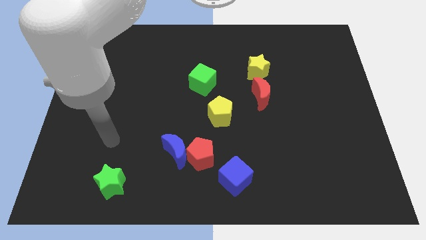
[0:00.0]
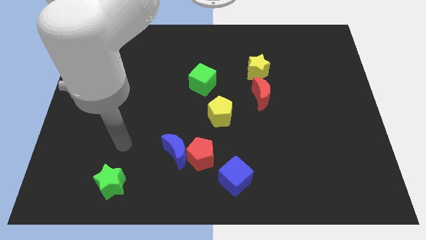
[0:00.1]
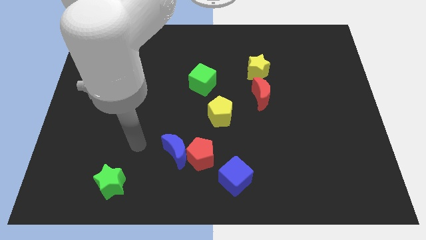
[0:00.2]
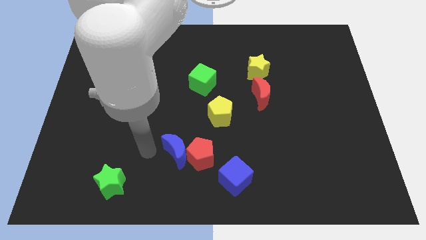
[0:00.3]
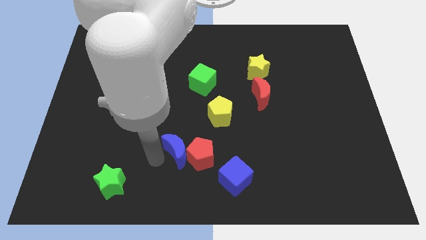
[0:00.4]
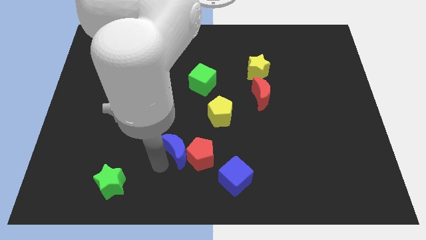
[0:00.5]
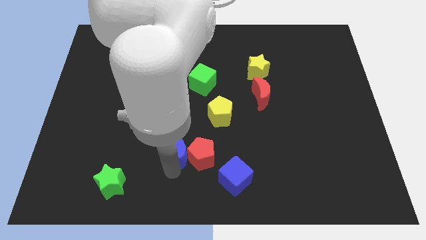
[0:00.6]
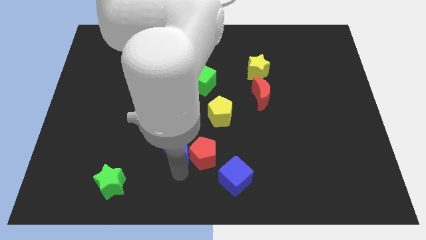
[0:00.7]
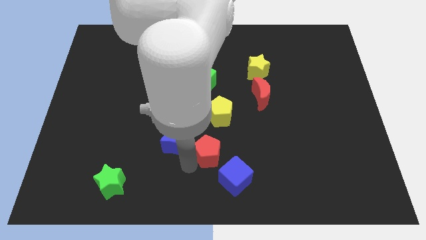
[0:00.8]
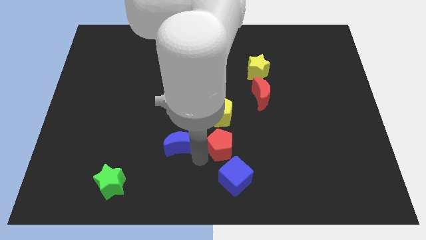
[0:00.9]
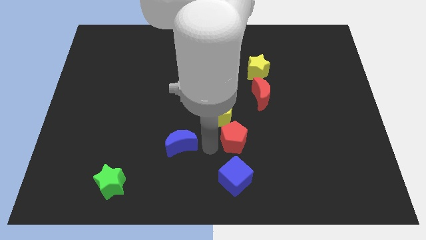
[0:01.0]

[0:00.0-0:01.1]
pull the blue moon apart from the red pentagon

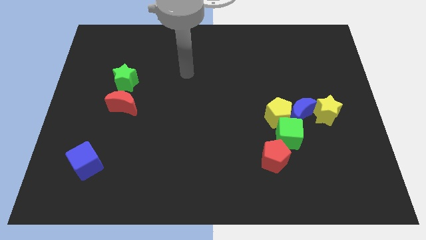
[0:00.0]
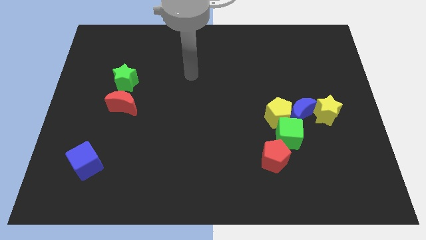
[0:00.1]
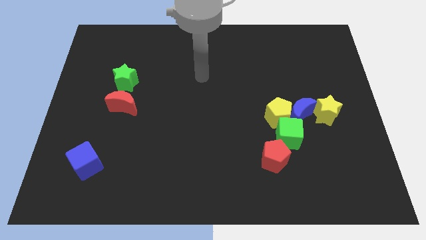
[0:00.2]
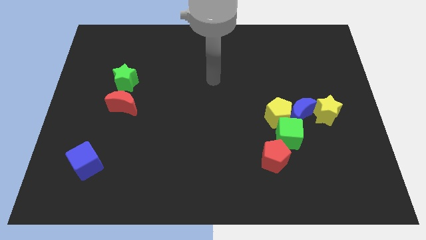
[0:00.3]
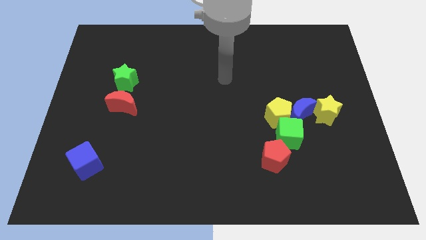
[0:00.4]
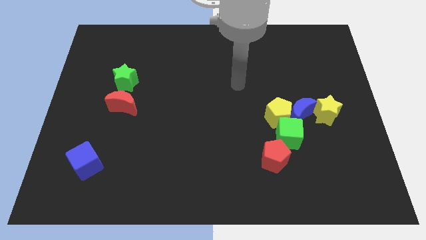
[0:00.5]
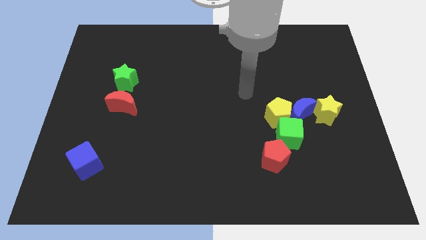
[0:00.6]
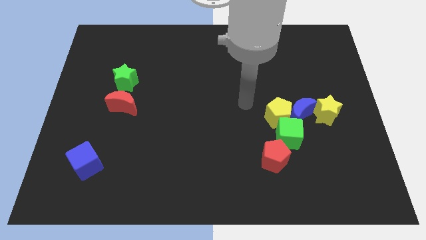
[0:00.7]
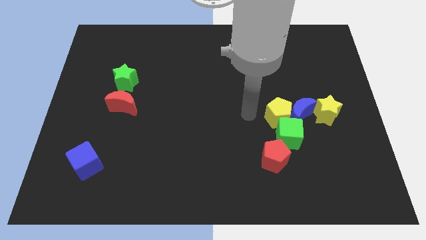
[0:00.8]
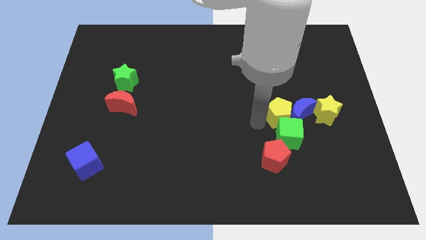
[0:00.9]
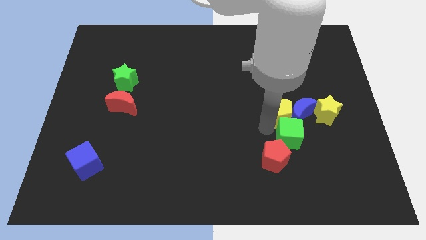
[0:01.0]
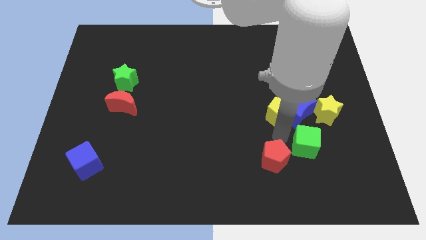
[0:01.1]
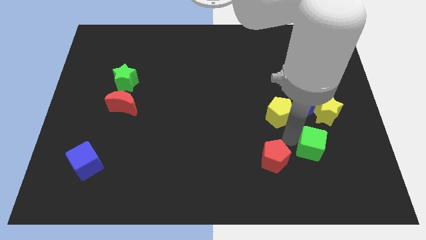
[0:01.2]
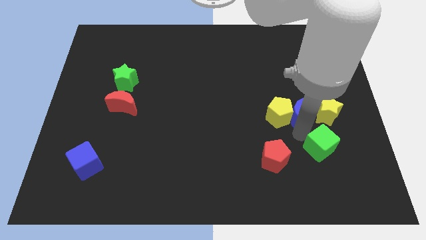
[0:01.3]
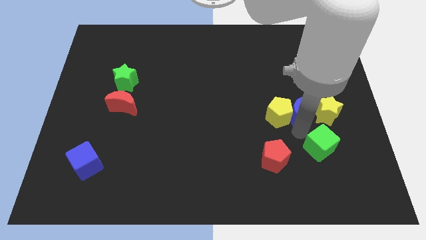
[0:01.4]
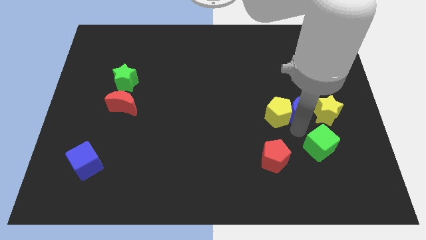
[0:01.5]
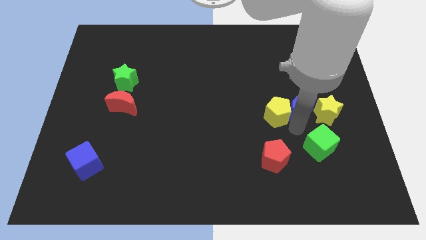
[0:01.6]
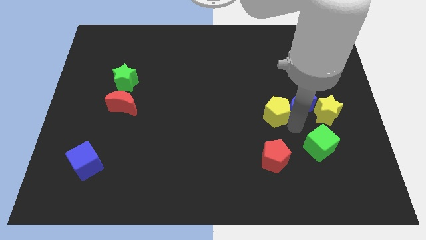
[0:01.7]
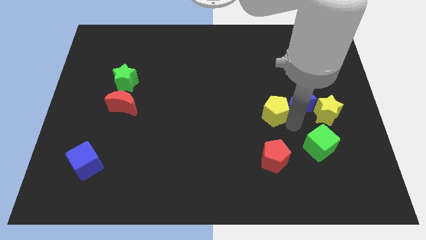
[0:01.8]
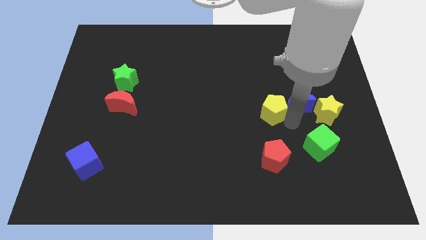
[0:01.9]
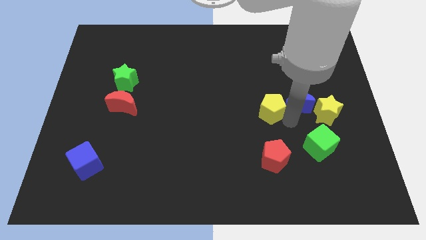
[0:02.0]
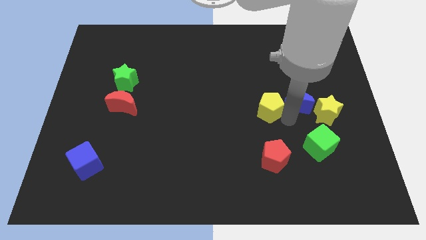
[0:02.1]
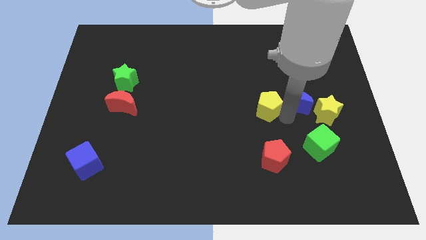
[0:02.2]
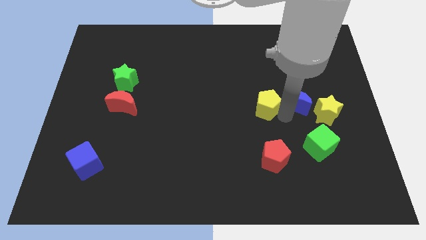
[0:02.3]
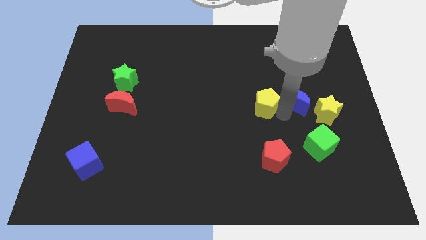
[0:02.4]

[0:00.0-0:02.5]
separate the yellow pentagon from the blue moon and green cube

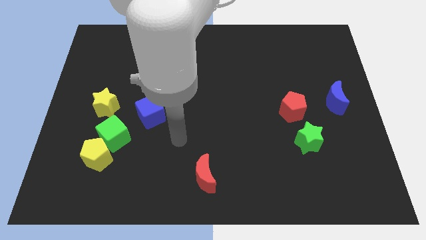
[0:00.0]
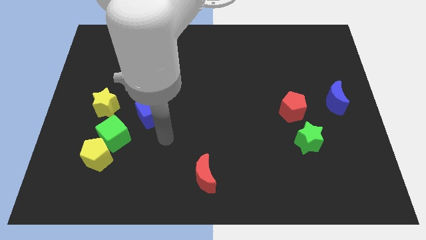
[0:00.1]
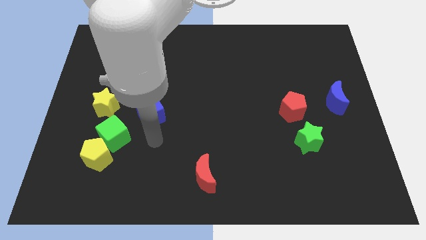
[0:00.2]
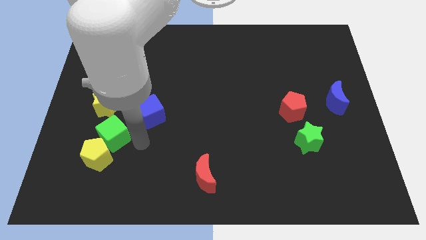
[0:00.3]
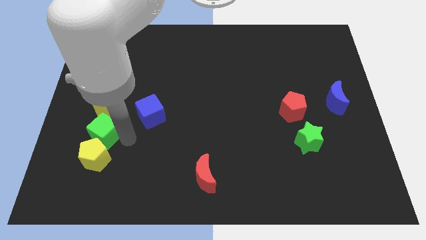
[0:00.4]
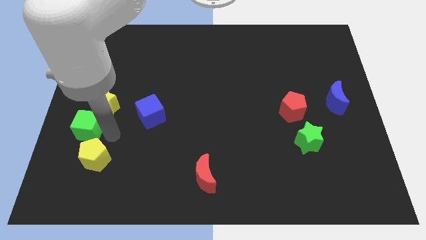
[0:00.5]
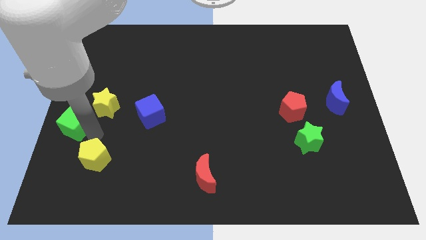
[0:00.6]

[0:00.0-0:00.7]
separate the yellow pentagon from the green cube

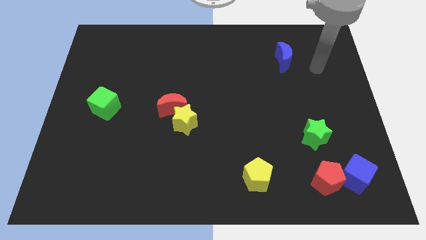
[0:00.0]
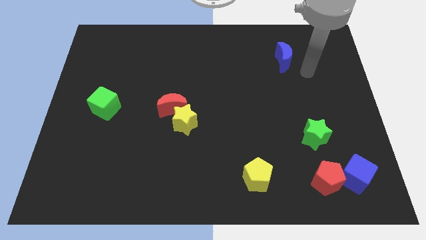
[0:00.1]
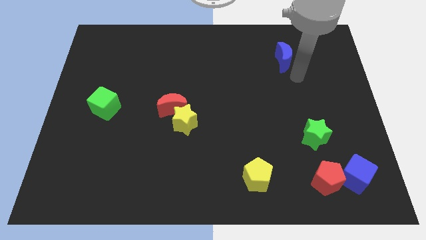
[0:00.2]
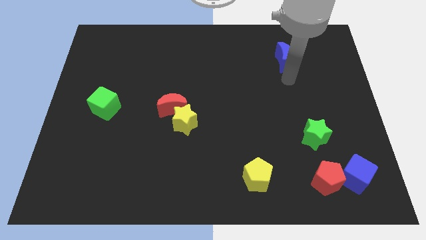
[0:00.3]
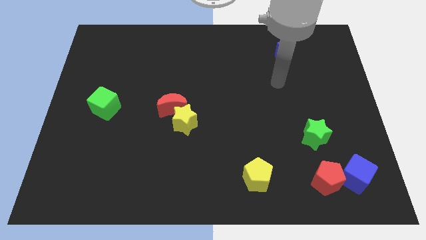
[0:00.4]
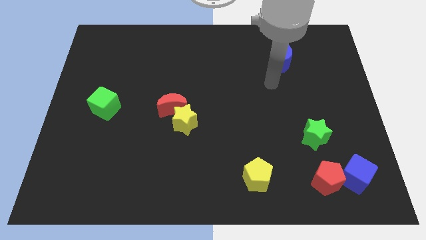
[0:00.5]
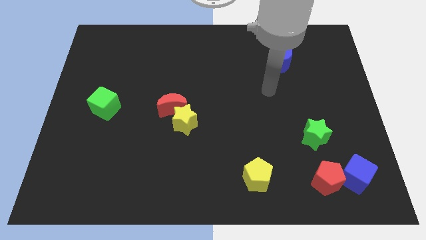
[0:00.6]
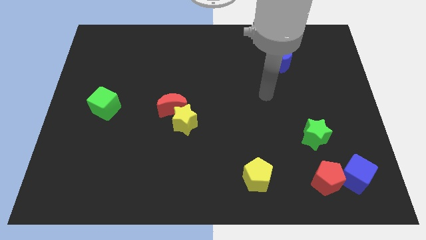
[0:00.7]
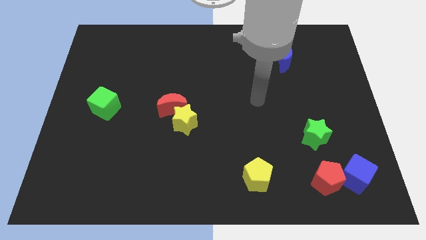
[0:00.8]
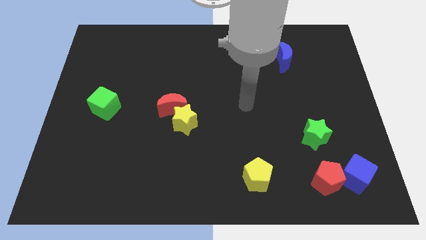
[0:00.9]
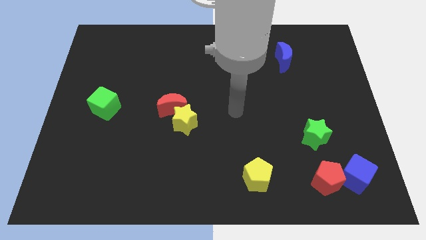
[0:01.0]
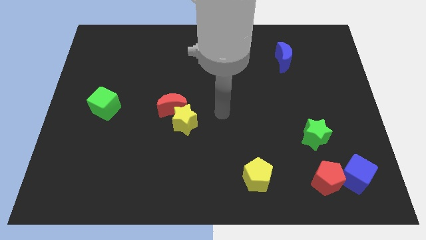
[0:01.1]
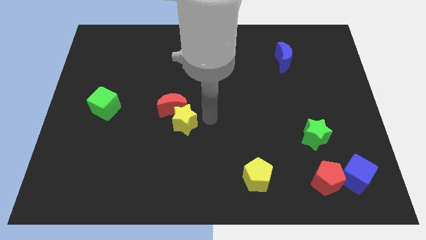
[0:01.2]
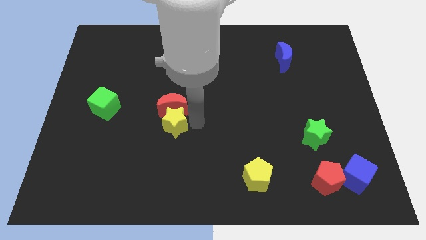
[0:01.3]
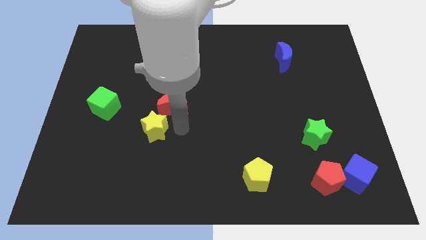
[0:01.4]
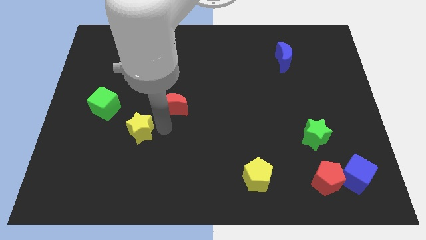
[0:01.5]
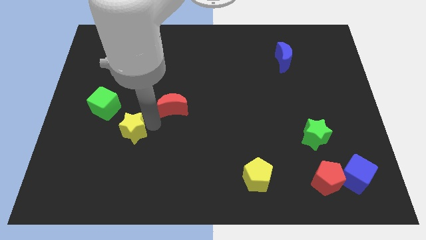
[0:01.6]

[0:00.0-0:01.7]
separate the red moon from the yellow star

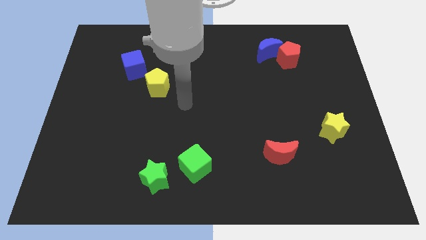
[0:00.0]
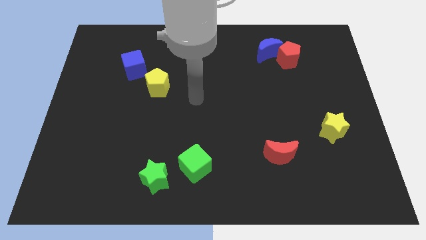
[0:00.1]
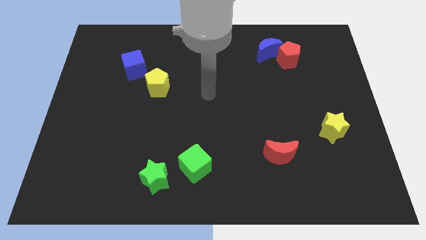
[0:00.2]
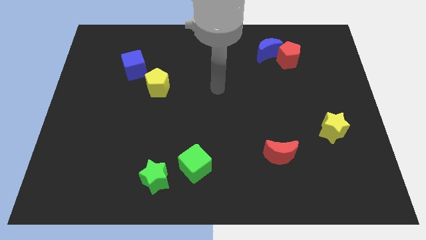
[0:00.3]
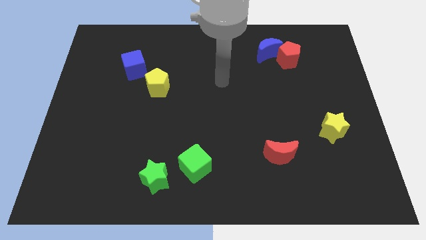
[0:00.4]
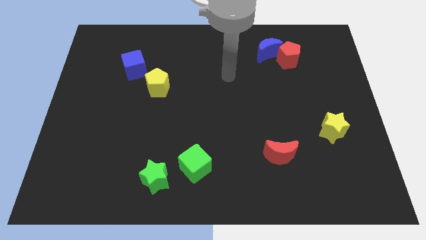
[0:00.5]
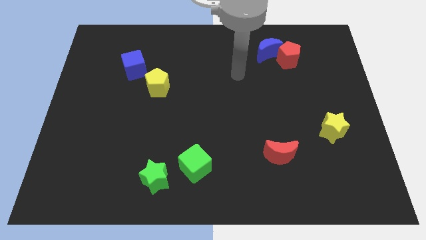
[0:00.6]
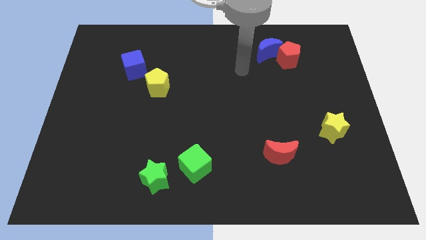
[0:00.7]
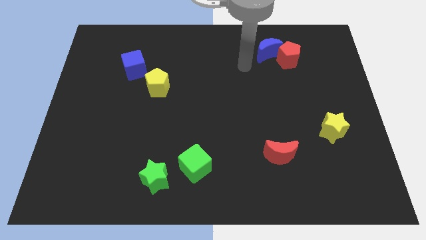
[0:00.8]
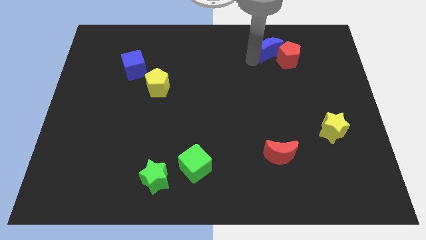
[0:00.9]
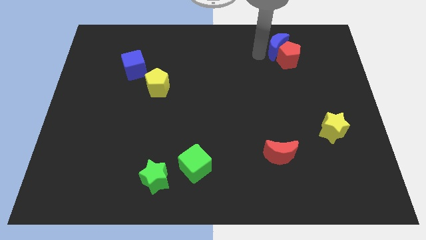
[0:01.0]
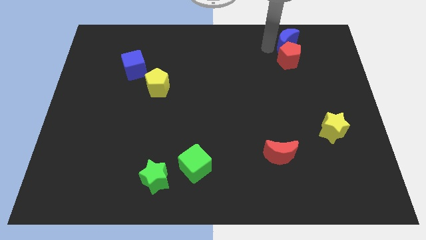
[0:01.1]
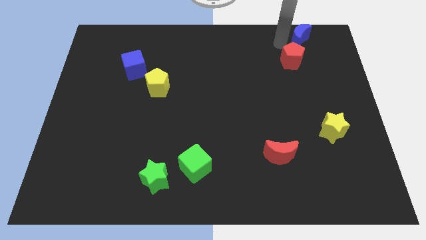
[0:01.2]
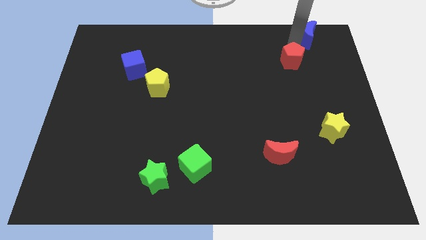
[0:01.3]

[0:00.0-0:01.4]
separate the red pentagon from the blue moon

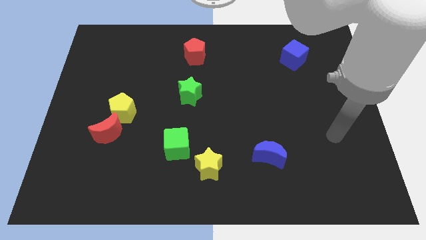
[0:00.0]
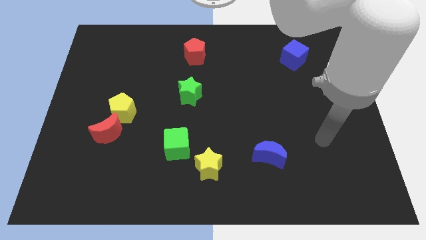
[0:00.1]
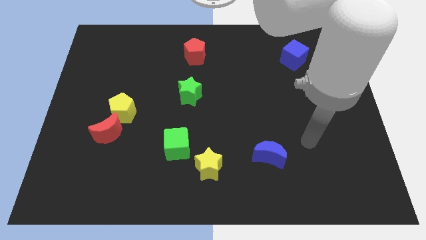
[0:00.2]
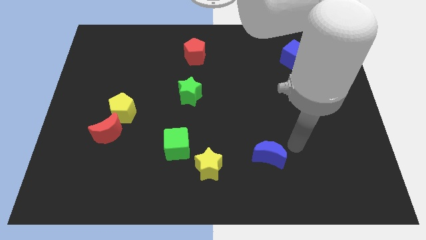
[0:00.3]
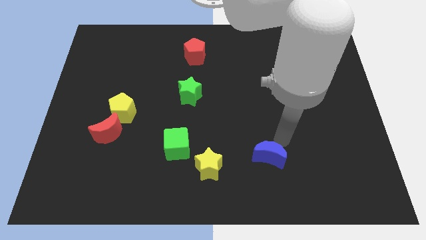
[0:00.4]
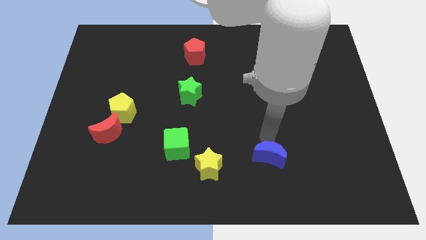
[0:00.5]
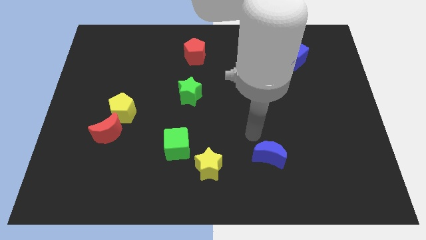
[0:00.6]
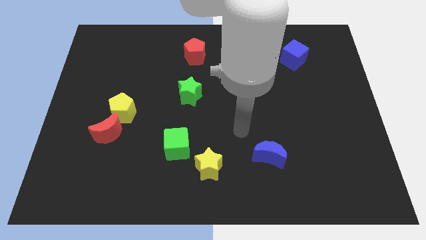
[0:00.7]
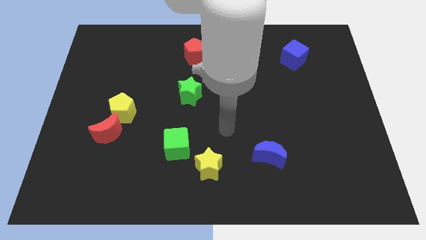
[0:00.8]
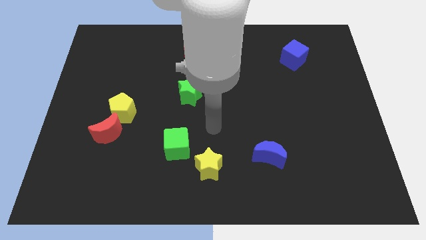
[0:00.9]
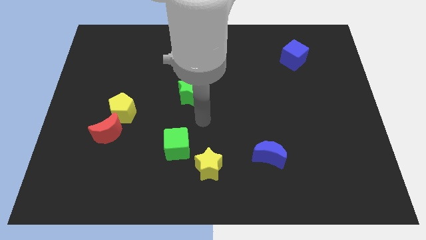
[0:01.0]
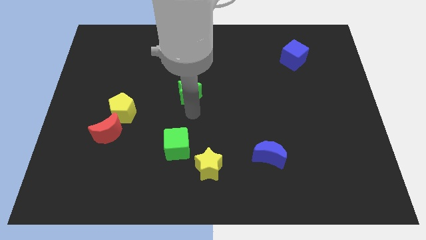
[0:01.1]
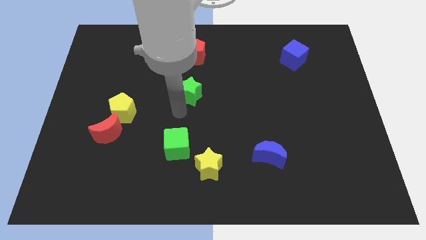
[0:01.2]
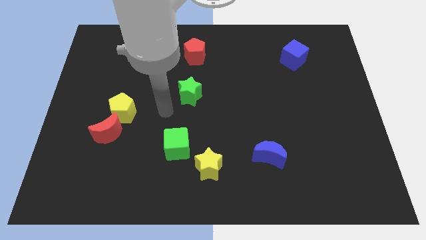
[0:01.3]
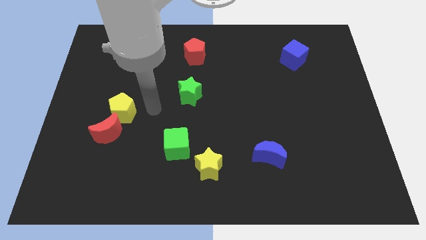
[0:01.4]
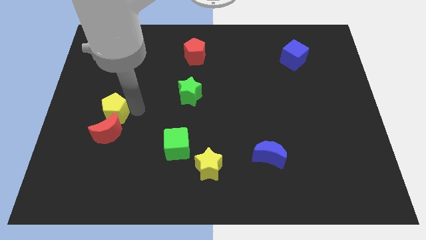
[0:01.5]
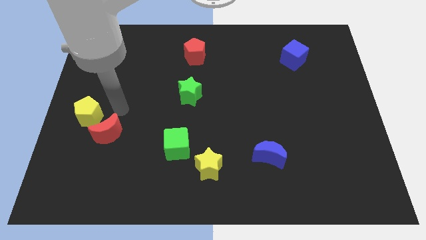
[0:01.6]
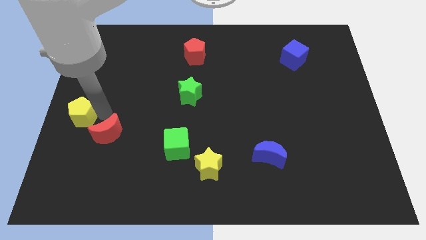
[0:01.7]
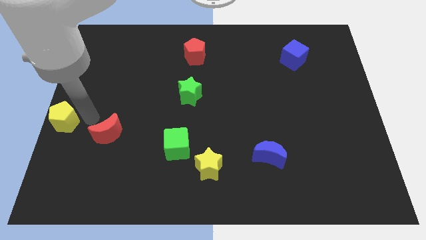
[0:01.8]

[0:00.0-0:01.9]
pull the red moon apart from the yellow pentagon
